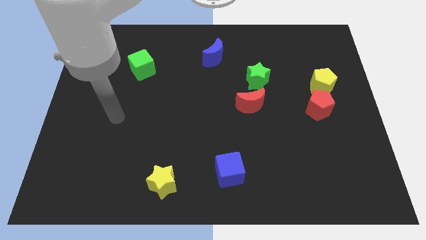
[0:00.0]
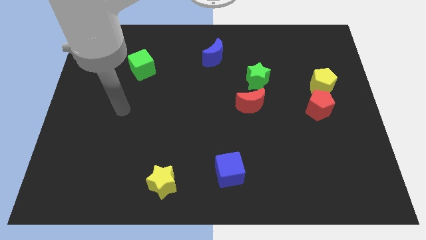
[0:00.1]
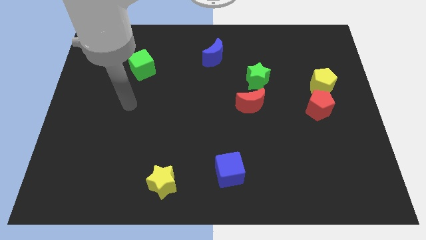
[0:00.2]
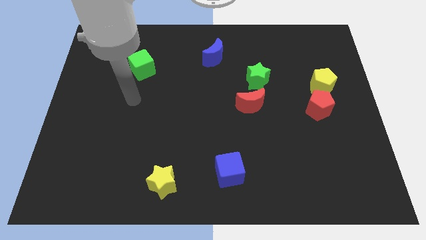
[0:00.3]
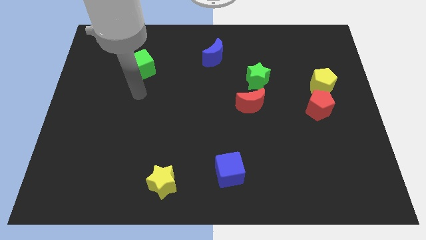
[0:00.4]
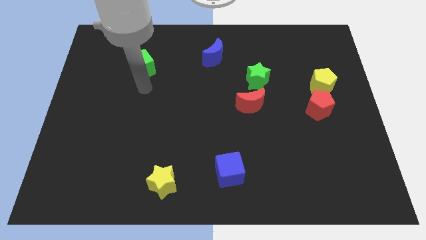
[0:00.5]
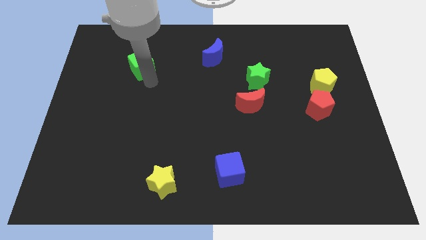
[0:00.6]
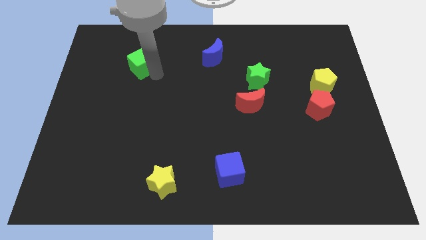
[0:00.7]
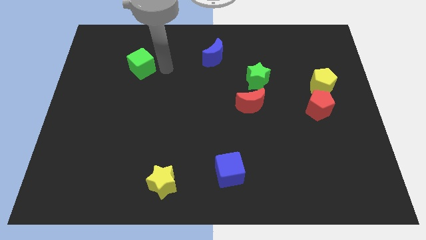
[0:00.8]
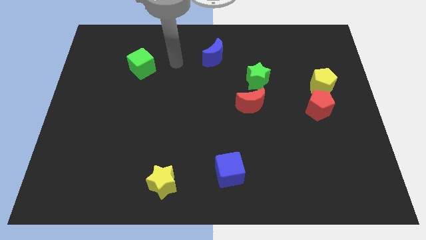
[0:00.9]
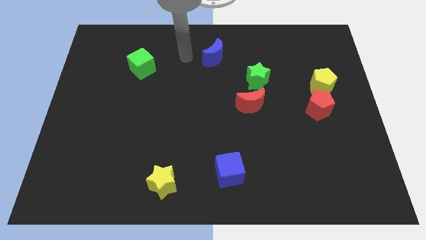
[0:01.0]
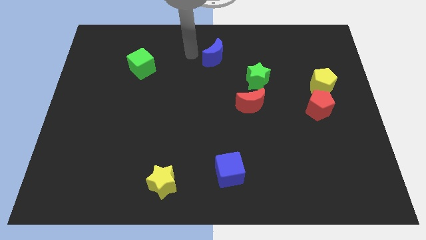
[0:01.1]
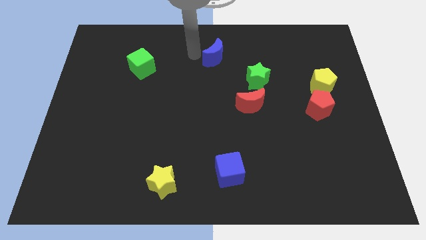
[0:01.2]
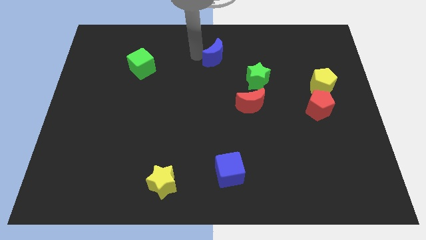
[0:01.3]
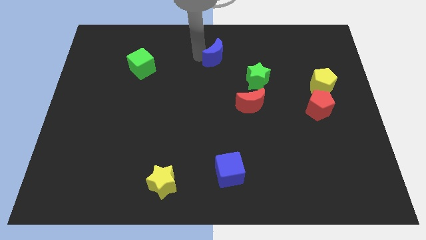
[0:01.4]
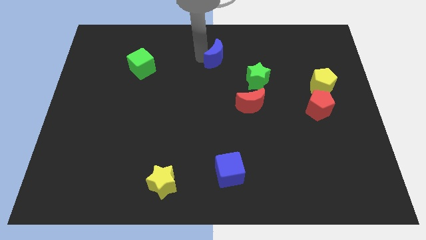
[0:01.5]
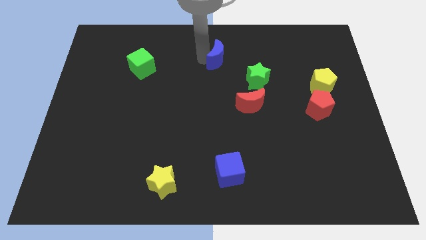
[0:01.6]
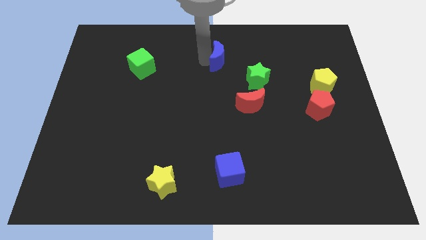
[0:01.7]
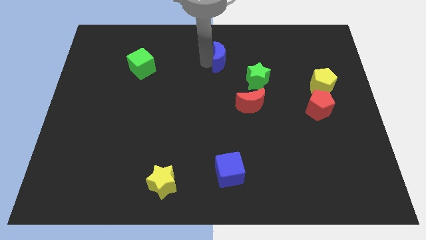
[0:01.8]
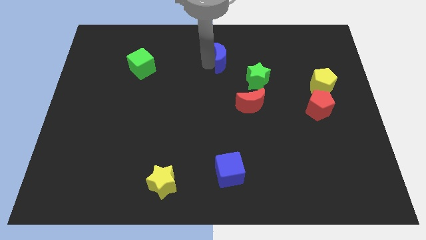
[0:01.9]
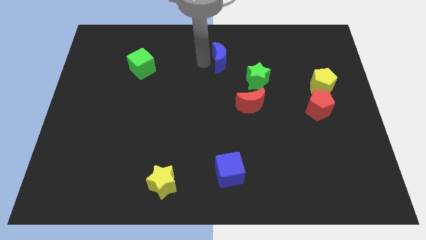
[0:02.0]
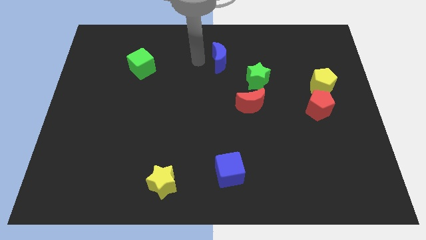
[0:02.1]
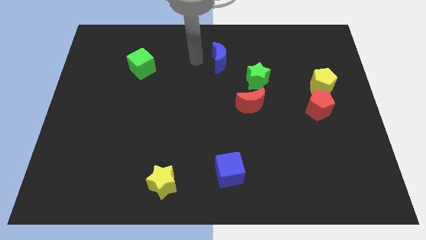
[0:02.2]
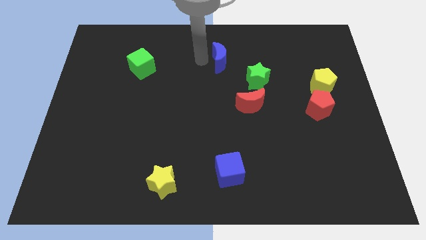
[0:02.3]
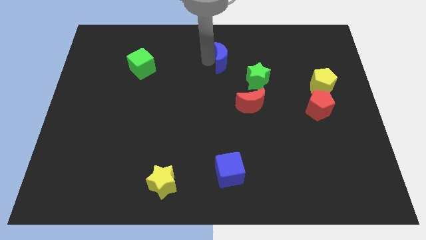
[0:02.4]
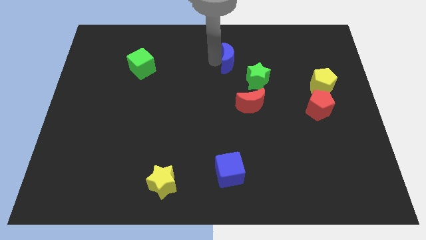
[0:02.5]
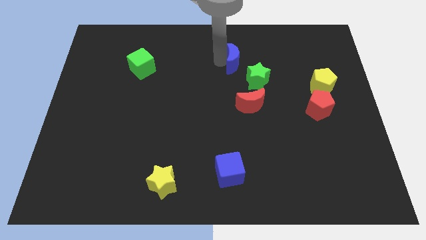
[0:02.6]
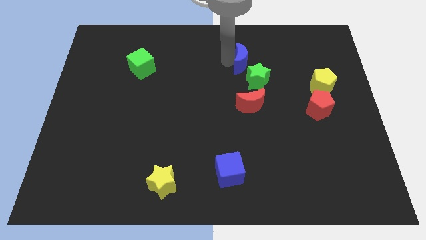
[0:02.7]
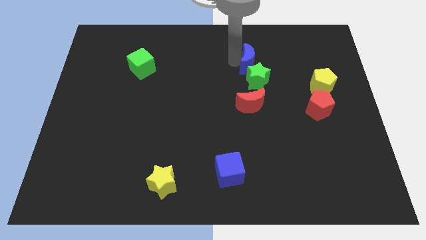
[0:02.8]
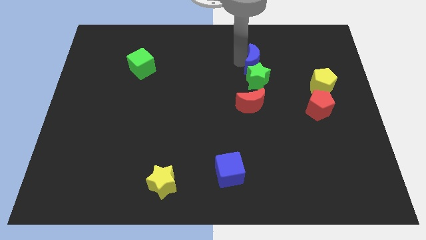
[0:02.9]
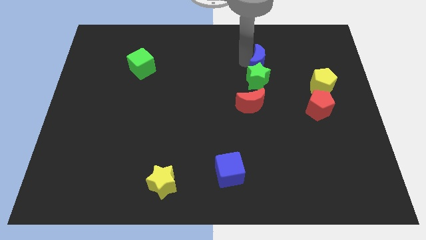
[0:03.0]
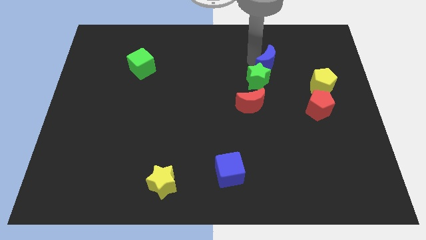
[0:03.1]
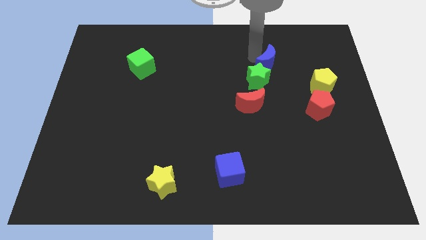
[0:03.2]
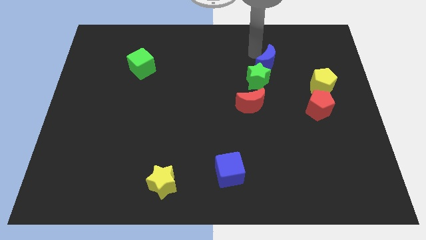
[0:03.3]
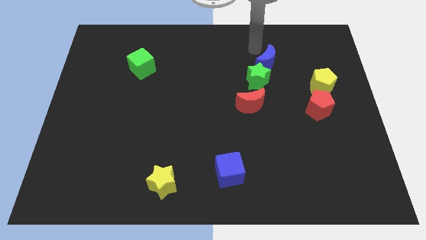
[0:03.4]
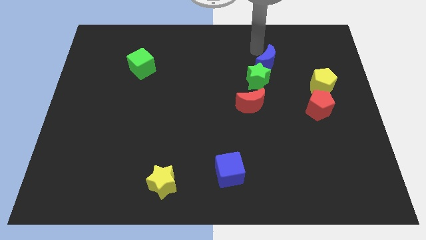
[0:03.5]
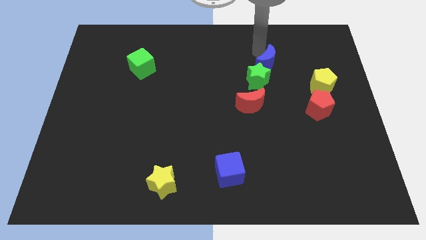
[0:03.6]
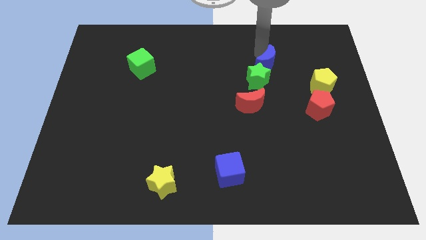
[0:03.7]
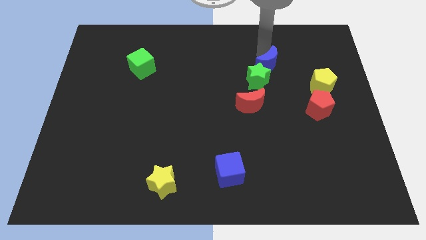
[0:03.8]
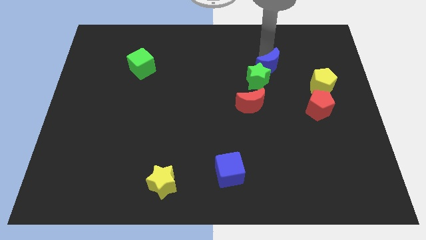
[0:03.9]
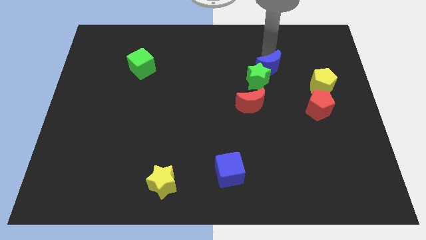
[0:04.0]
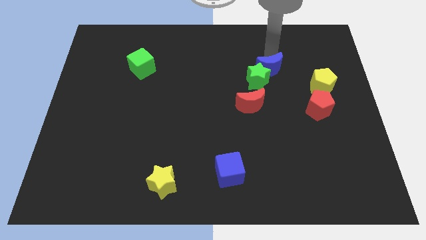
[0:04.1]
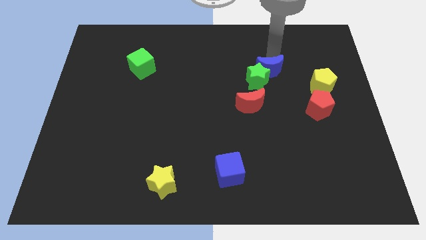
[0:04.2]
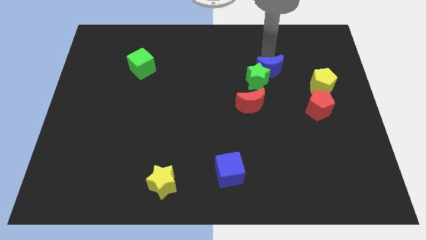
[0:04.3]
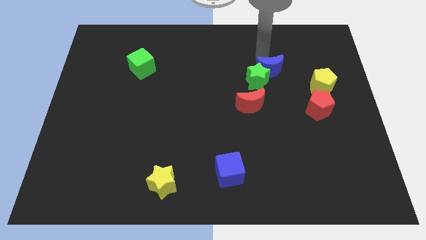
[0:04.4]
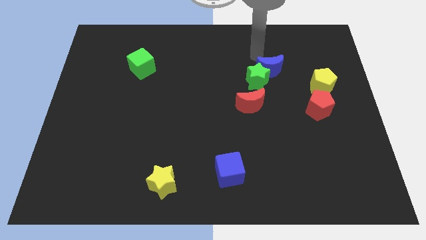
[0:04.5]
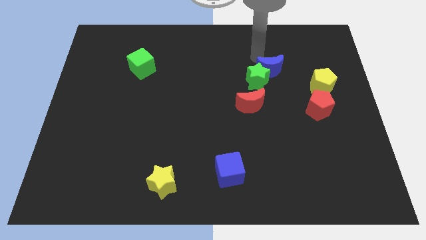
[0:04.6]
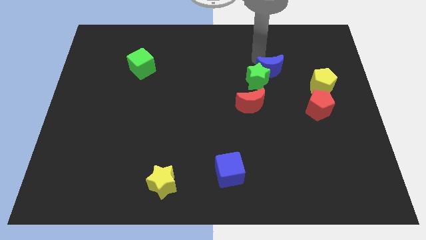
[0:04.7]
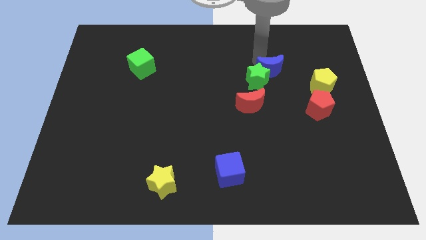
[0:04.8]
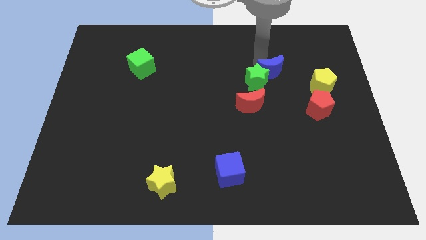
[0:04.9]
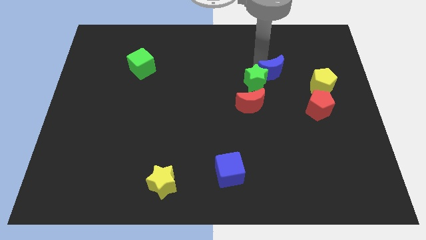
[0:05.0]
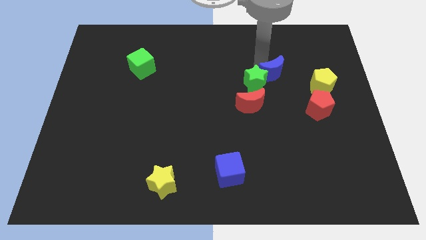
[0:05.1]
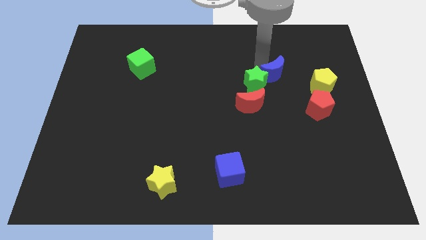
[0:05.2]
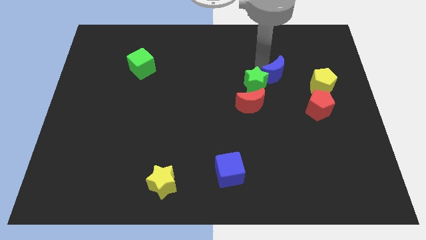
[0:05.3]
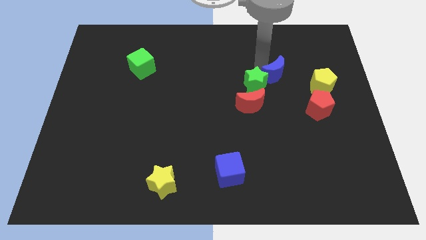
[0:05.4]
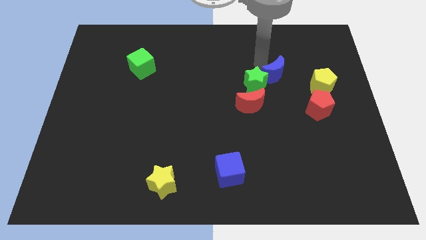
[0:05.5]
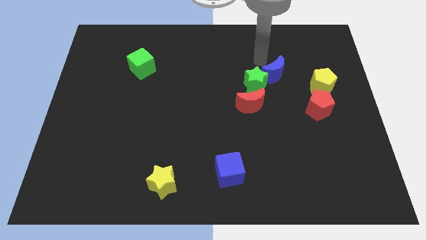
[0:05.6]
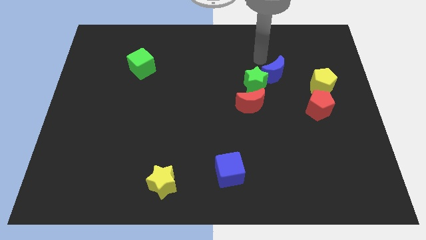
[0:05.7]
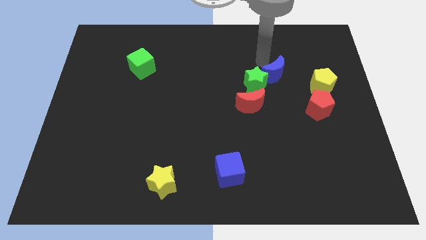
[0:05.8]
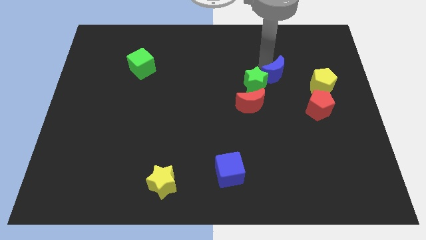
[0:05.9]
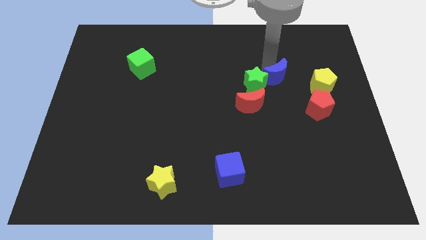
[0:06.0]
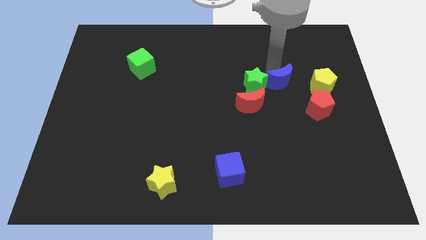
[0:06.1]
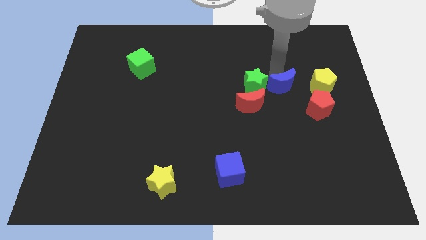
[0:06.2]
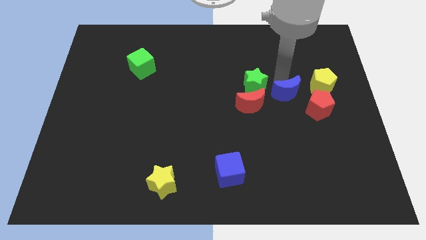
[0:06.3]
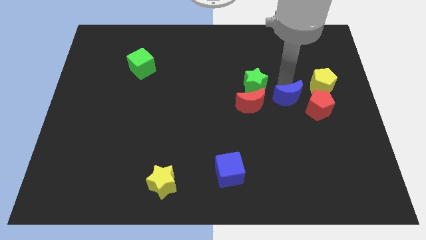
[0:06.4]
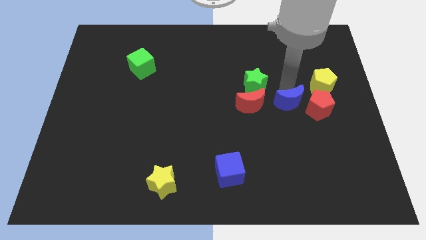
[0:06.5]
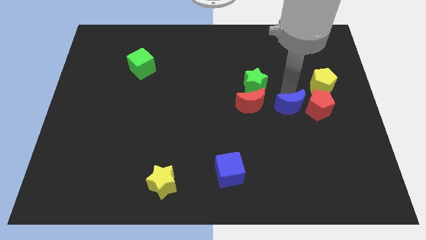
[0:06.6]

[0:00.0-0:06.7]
put the blue moon diagonally down and to the left of the red pentagon

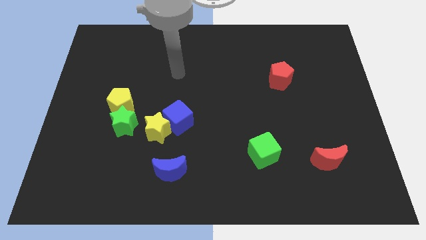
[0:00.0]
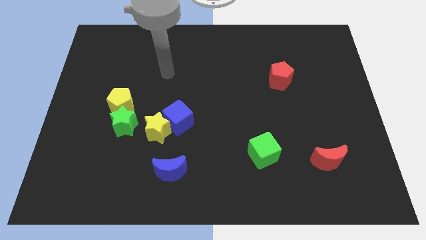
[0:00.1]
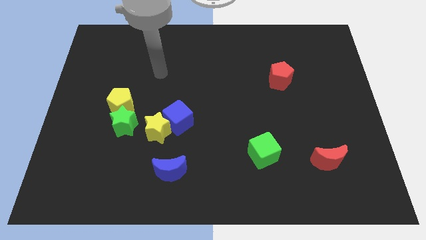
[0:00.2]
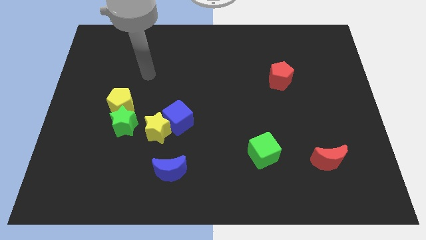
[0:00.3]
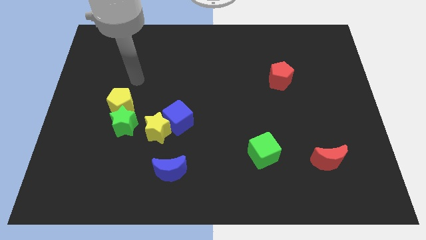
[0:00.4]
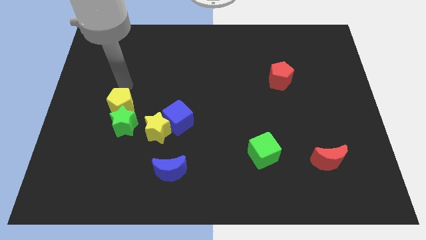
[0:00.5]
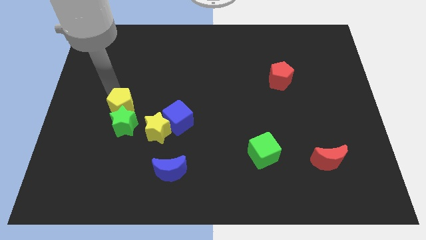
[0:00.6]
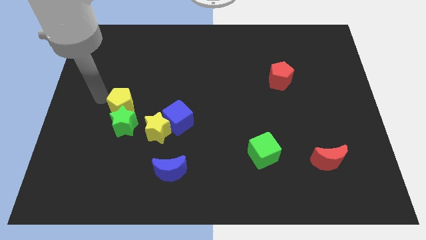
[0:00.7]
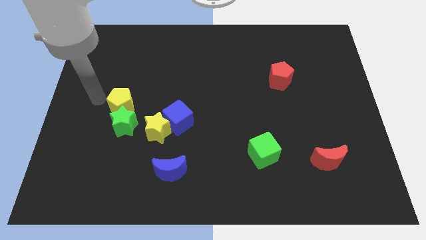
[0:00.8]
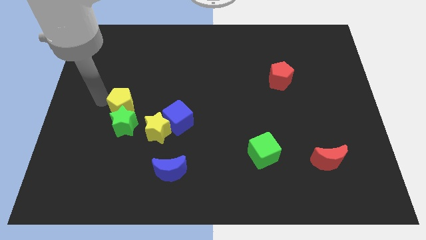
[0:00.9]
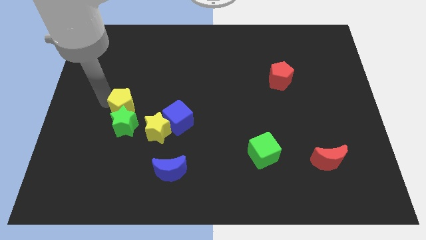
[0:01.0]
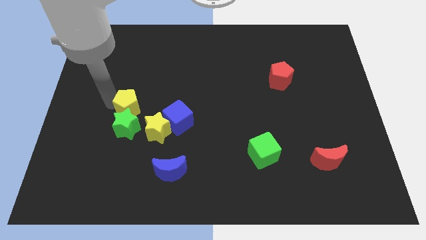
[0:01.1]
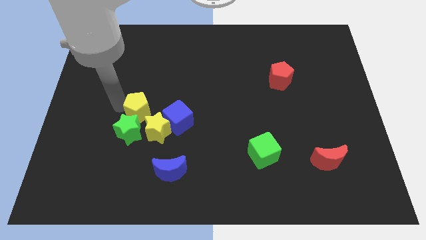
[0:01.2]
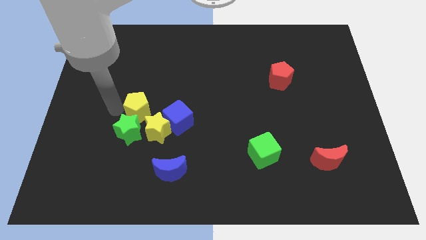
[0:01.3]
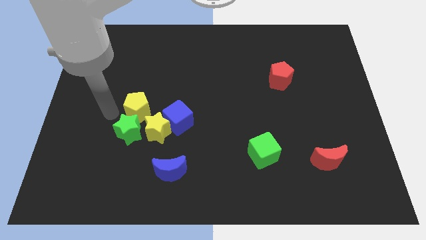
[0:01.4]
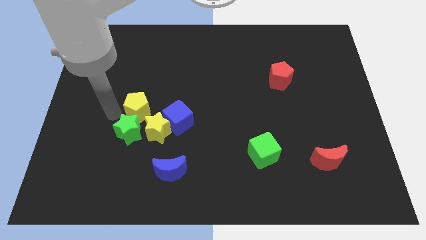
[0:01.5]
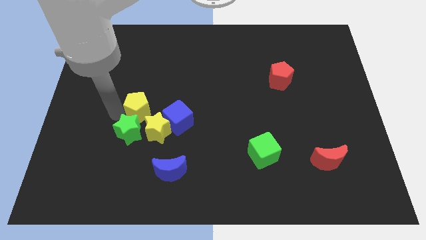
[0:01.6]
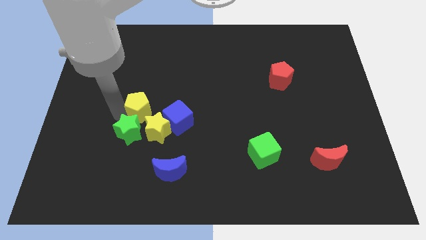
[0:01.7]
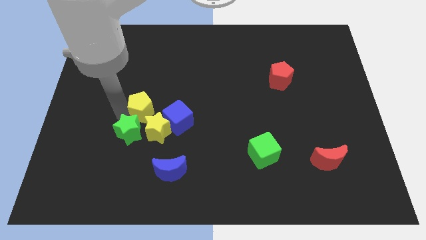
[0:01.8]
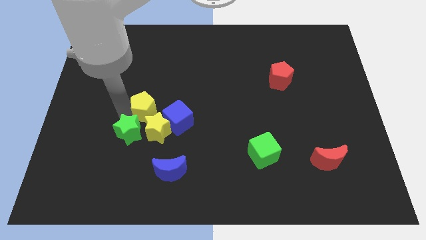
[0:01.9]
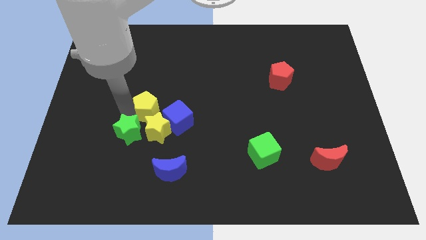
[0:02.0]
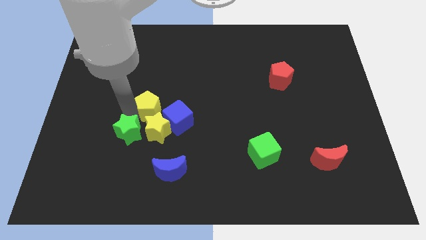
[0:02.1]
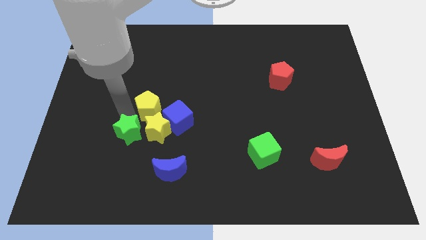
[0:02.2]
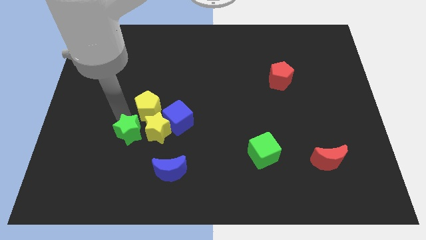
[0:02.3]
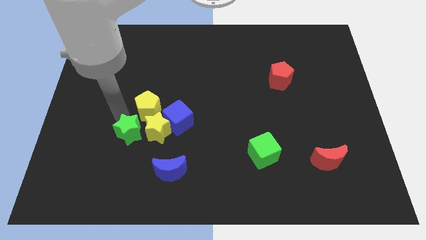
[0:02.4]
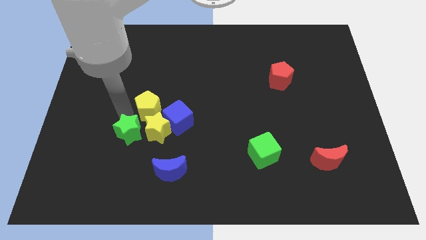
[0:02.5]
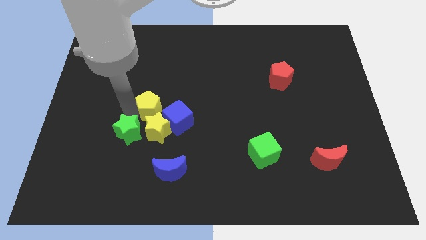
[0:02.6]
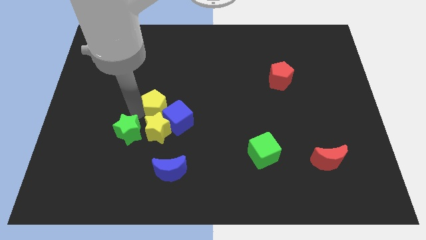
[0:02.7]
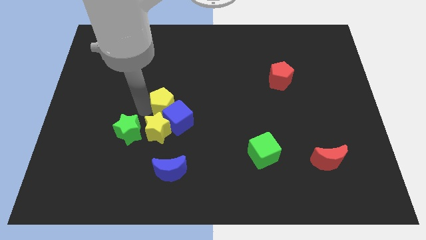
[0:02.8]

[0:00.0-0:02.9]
slide the yellow pentagon to the top right side of the yellow star
